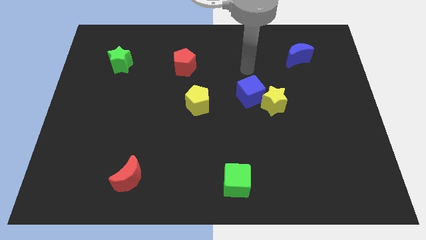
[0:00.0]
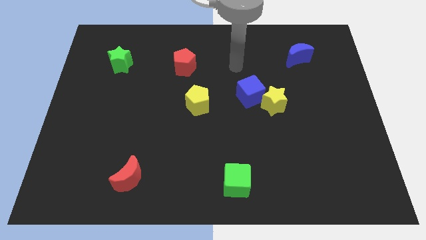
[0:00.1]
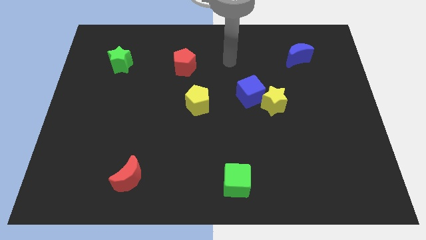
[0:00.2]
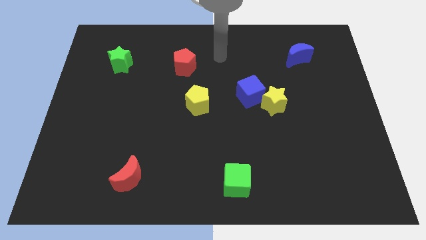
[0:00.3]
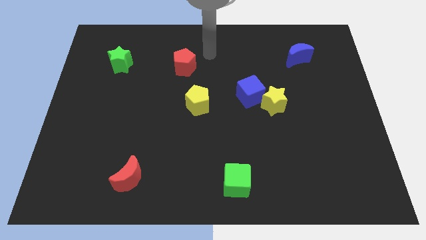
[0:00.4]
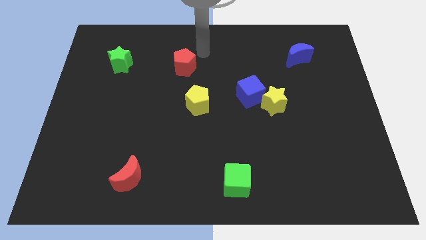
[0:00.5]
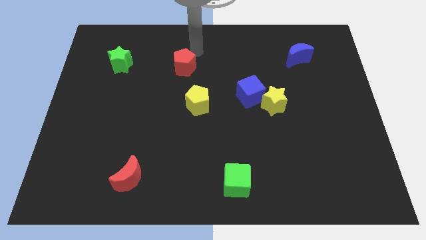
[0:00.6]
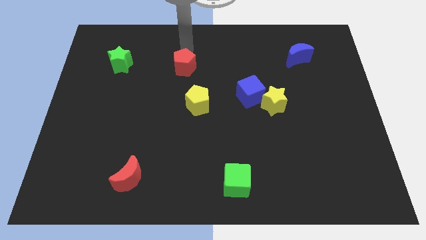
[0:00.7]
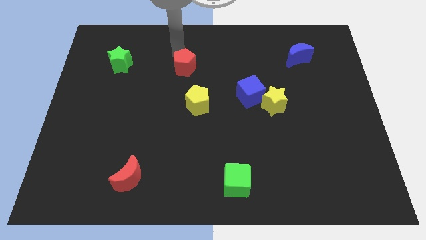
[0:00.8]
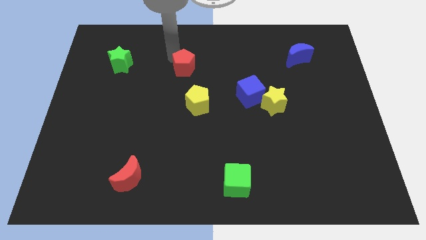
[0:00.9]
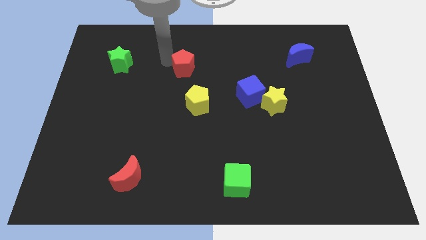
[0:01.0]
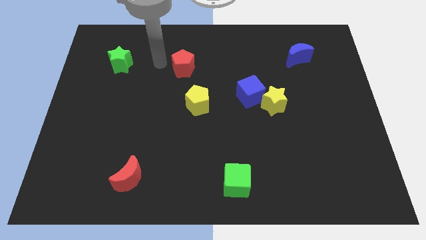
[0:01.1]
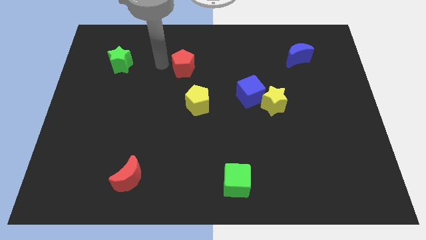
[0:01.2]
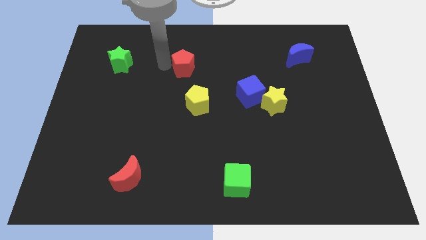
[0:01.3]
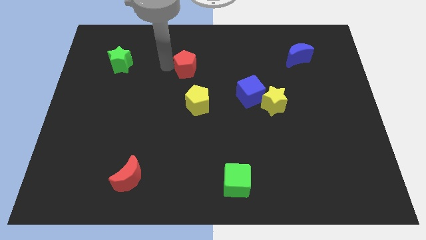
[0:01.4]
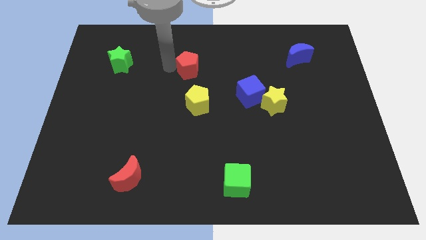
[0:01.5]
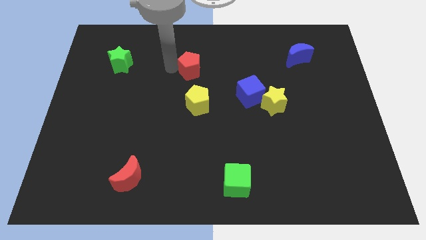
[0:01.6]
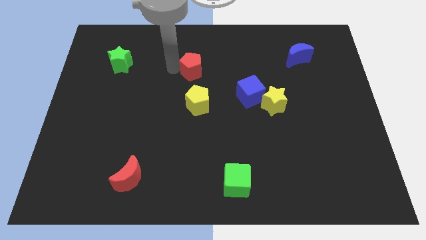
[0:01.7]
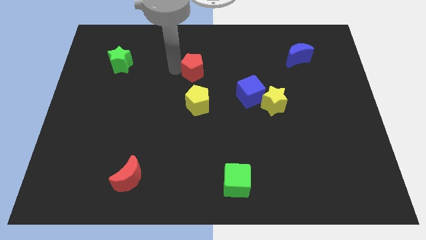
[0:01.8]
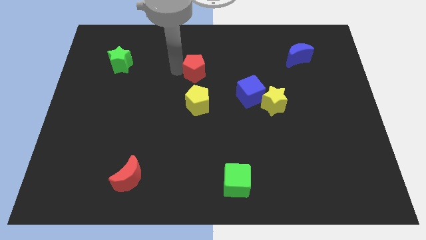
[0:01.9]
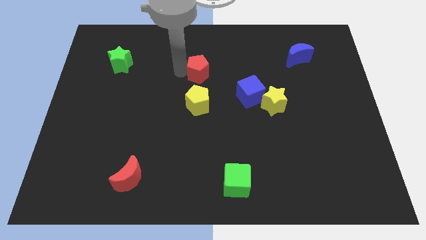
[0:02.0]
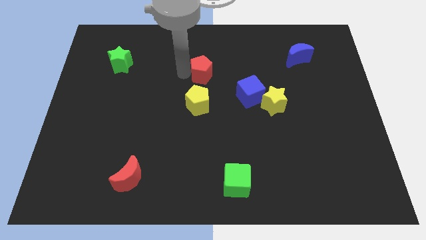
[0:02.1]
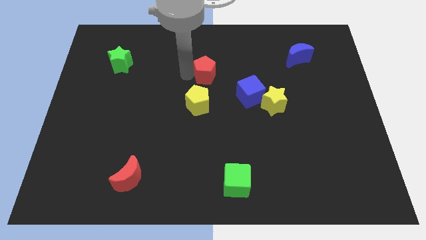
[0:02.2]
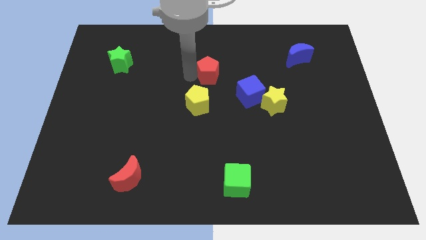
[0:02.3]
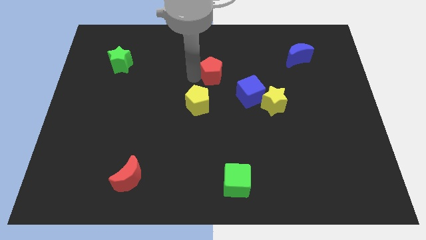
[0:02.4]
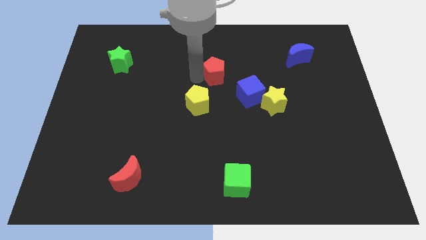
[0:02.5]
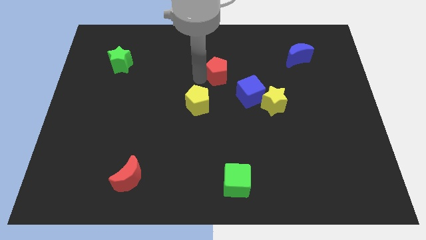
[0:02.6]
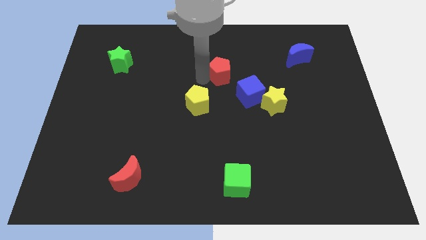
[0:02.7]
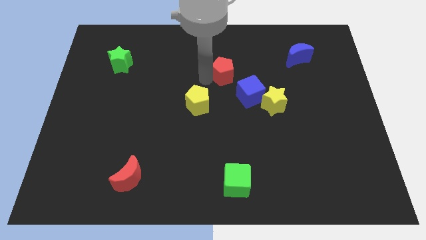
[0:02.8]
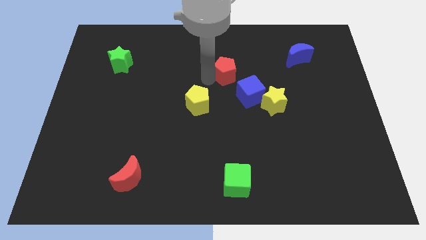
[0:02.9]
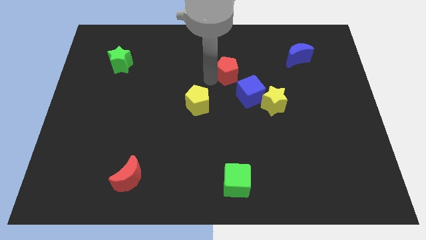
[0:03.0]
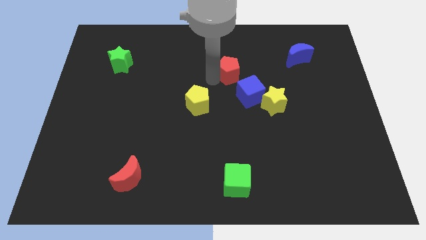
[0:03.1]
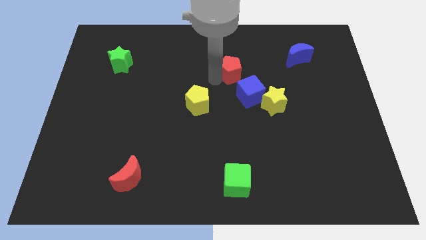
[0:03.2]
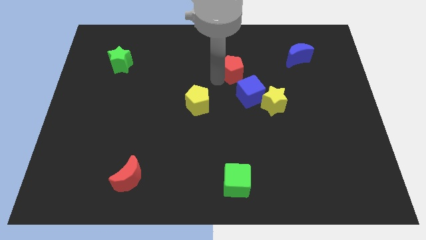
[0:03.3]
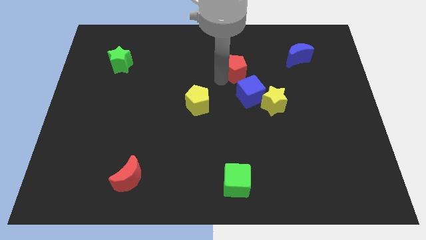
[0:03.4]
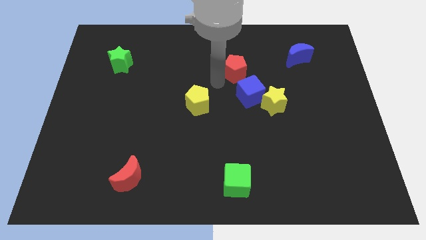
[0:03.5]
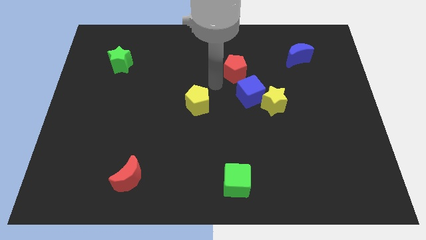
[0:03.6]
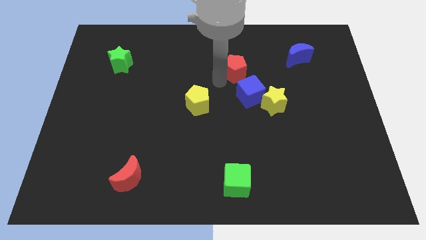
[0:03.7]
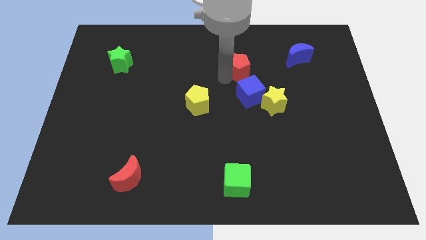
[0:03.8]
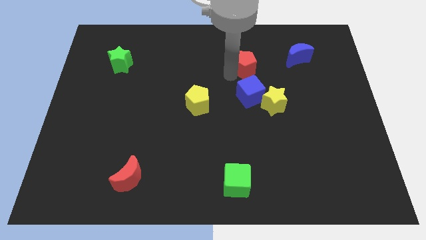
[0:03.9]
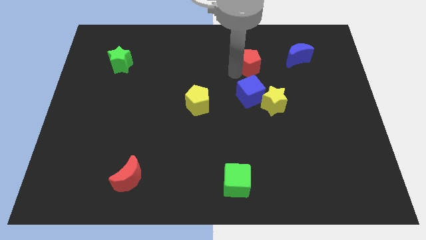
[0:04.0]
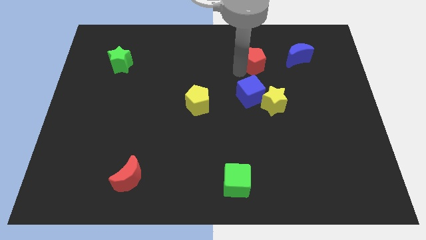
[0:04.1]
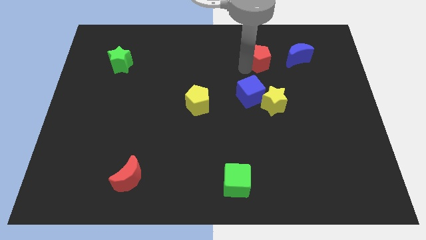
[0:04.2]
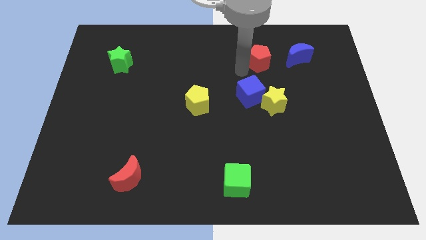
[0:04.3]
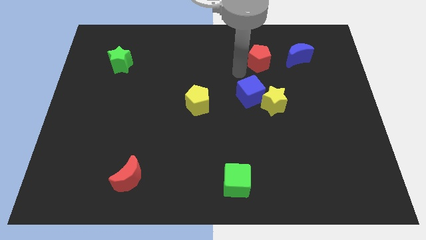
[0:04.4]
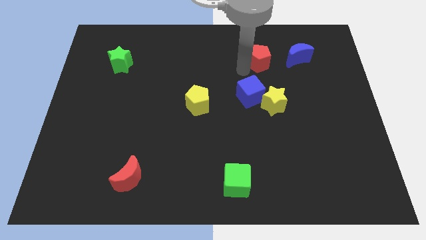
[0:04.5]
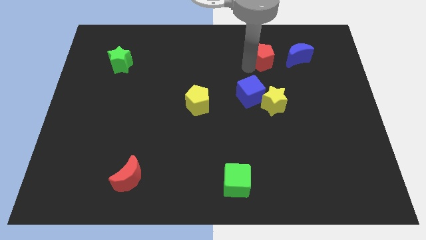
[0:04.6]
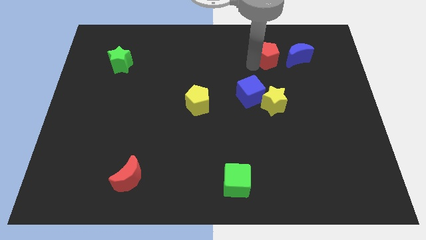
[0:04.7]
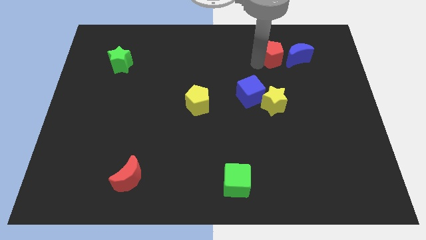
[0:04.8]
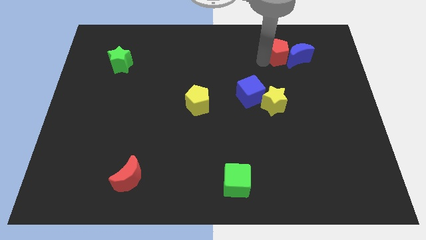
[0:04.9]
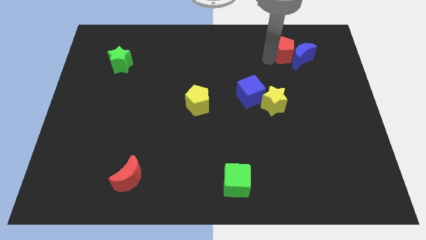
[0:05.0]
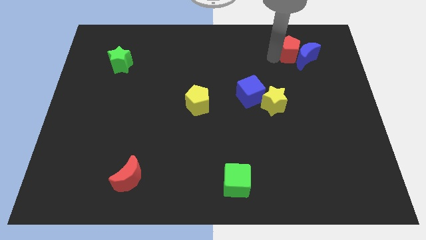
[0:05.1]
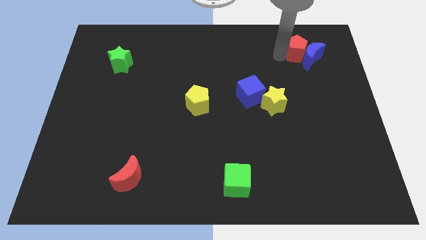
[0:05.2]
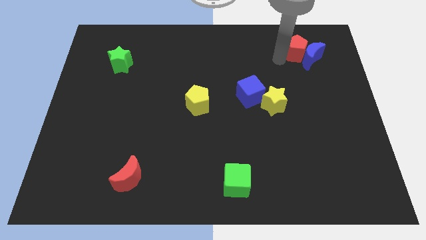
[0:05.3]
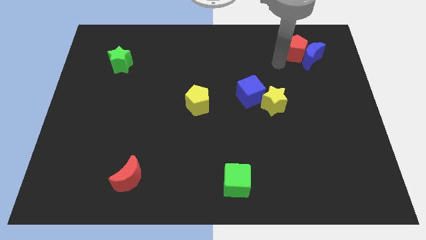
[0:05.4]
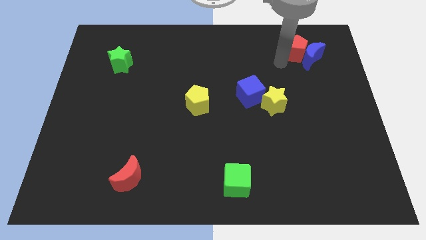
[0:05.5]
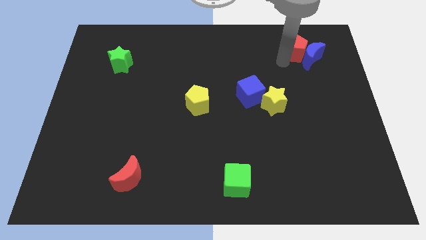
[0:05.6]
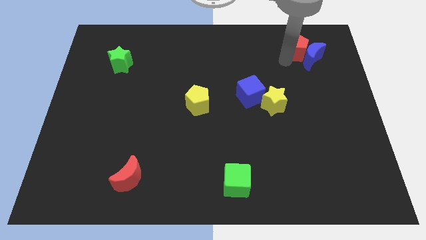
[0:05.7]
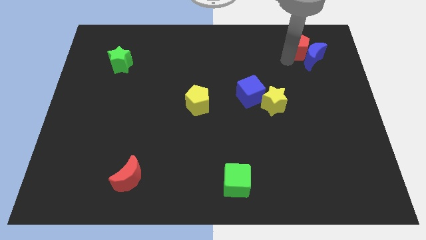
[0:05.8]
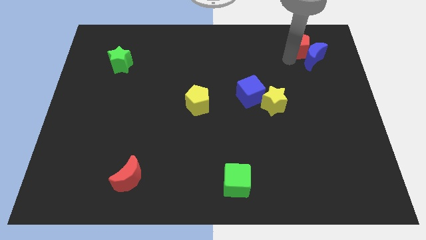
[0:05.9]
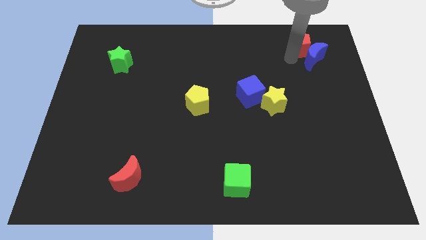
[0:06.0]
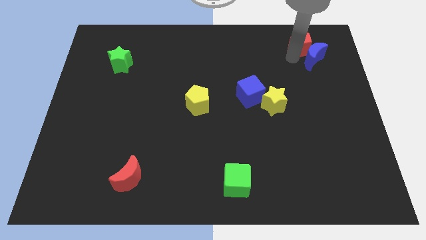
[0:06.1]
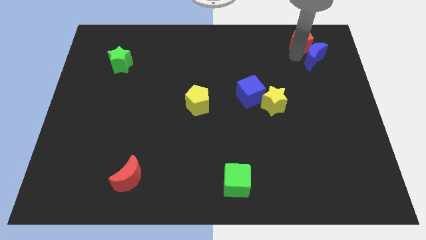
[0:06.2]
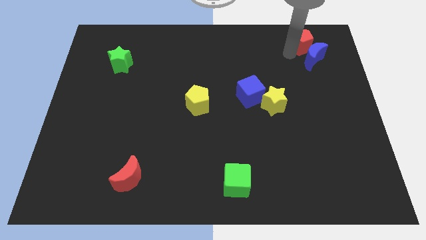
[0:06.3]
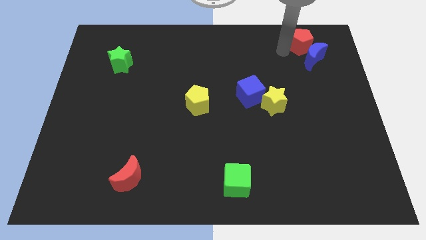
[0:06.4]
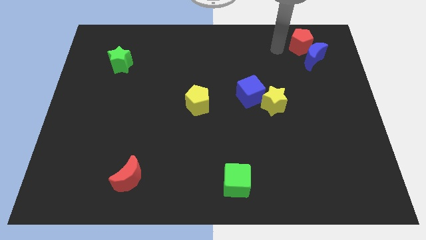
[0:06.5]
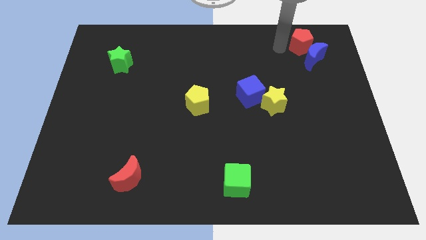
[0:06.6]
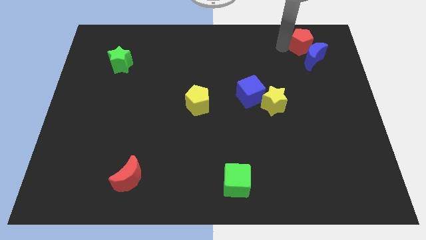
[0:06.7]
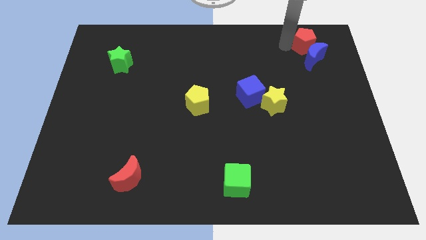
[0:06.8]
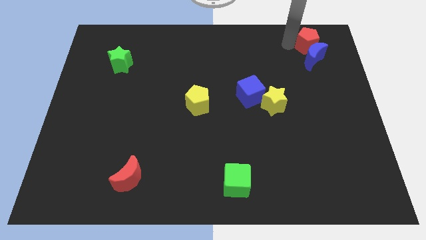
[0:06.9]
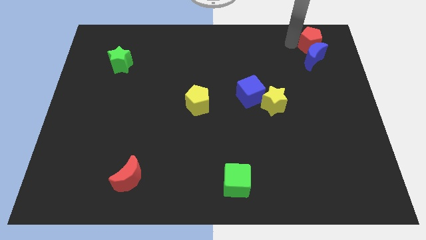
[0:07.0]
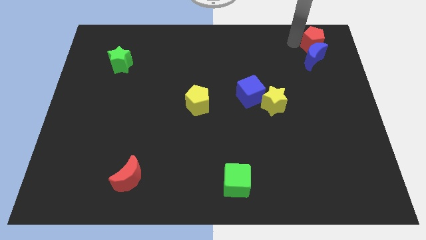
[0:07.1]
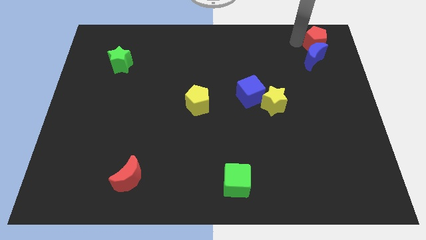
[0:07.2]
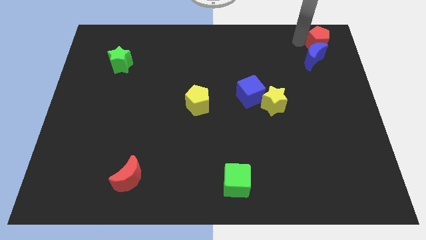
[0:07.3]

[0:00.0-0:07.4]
push the red pentagon to the top right corner
